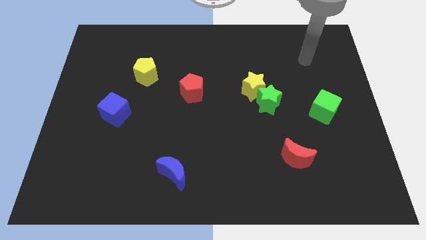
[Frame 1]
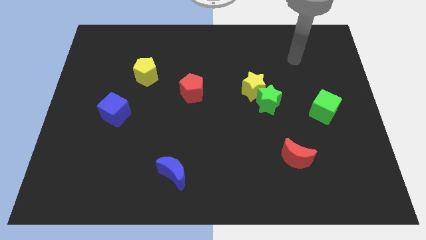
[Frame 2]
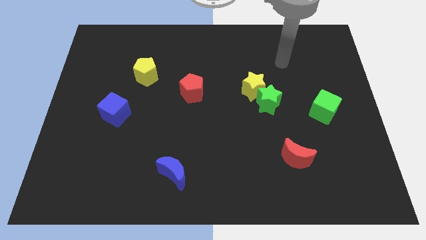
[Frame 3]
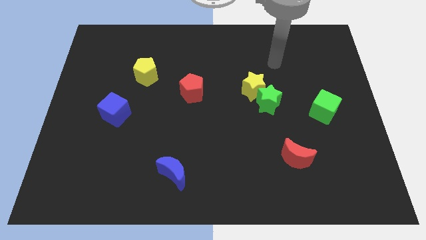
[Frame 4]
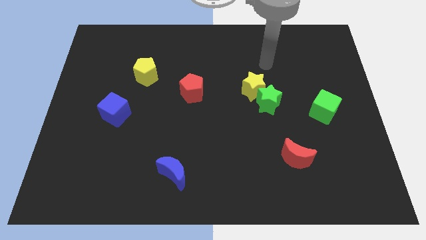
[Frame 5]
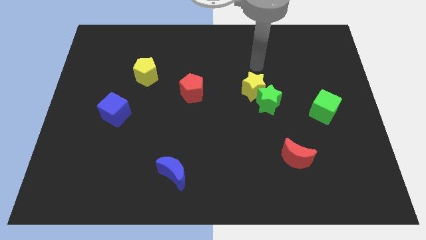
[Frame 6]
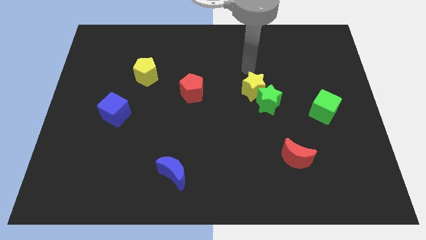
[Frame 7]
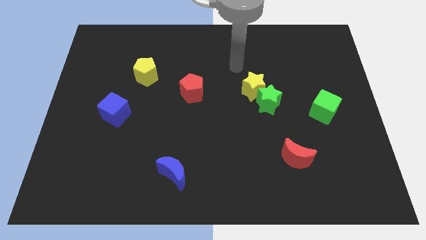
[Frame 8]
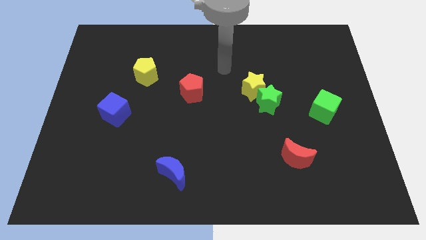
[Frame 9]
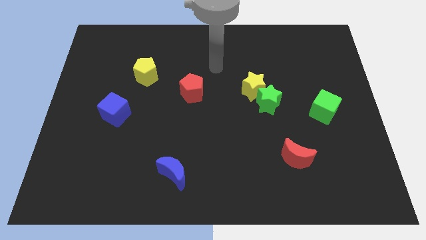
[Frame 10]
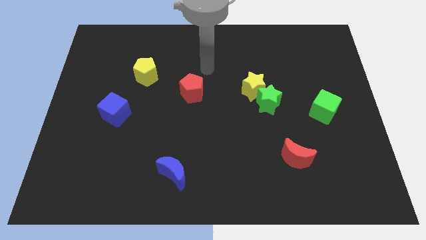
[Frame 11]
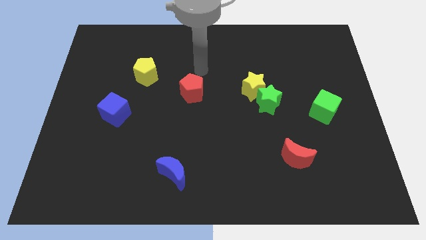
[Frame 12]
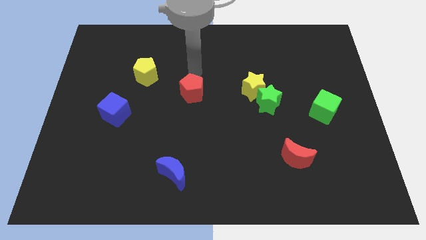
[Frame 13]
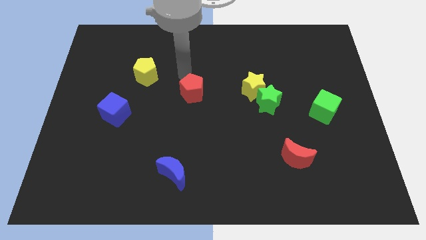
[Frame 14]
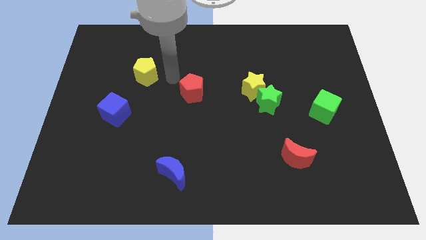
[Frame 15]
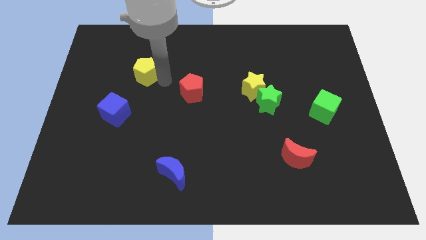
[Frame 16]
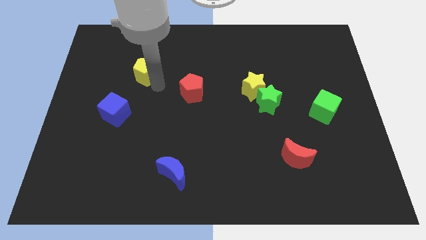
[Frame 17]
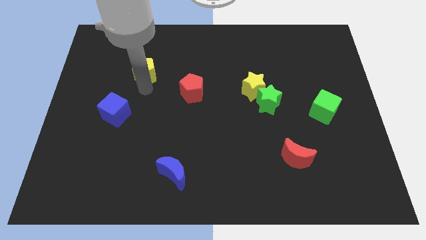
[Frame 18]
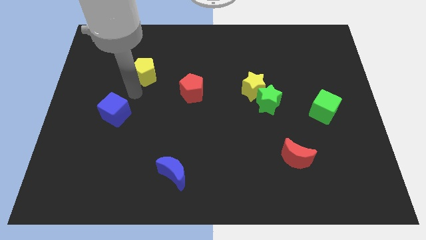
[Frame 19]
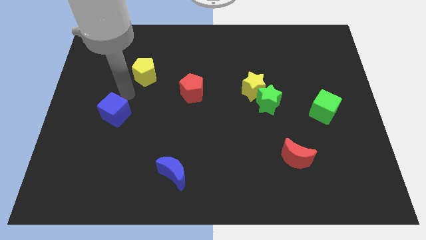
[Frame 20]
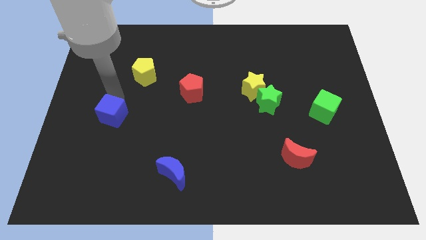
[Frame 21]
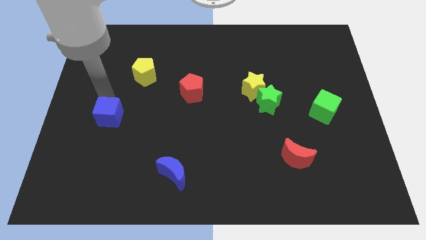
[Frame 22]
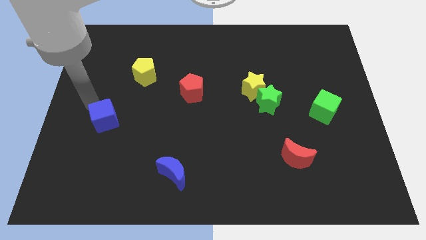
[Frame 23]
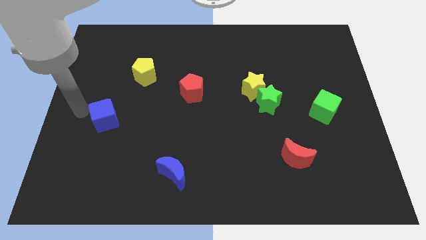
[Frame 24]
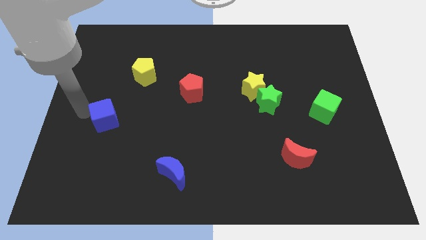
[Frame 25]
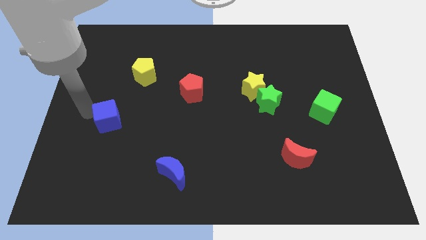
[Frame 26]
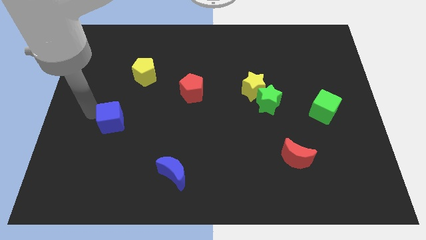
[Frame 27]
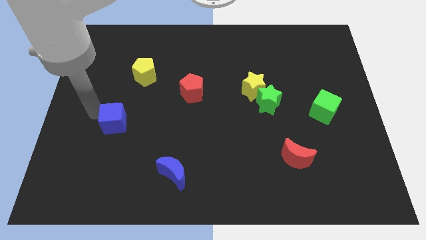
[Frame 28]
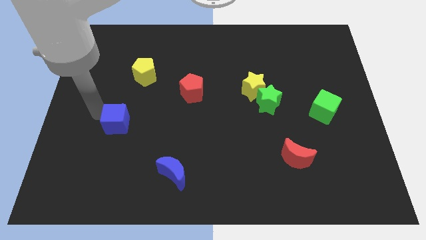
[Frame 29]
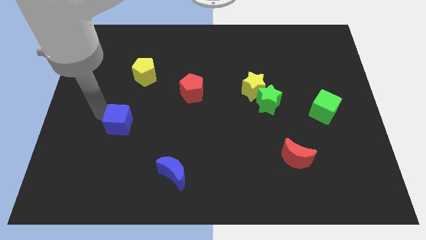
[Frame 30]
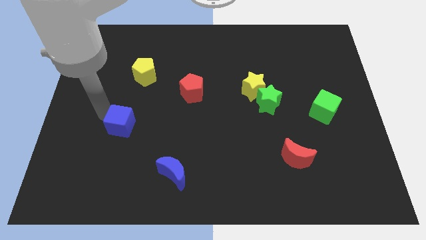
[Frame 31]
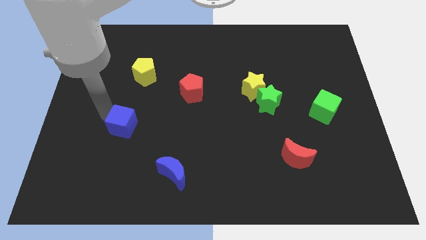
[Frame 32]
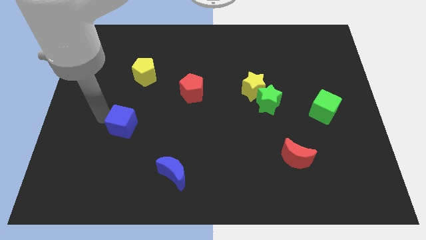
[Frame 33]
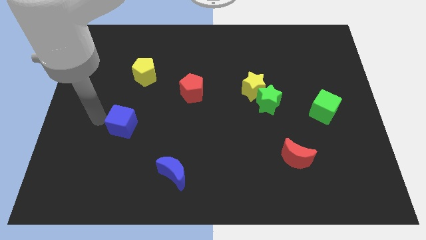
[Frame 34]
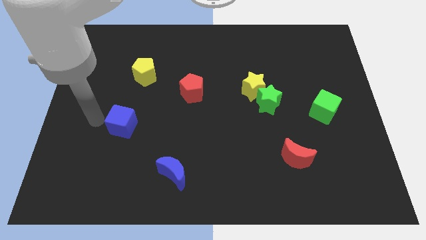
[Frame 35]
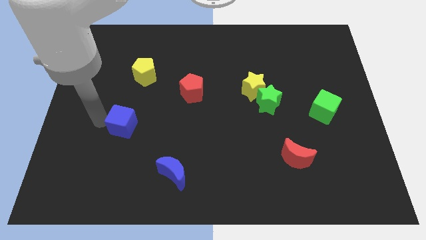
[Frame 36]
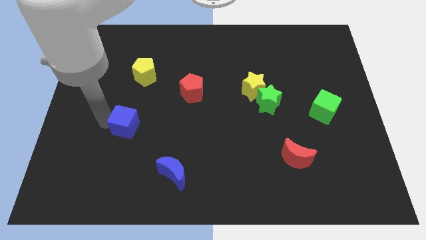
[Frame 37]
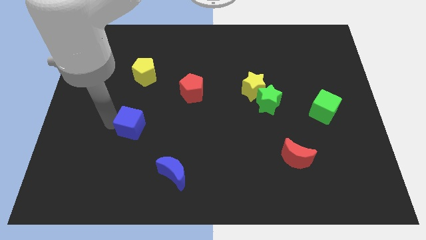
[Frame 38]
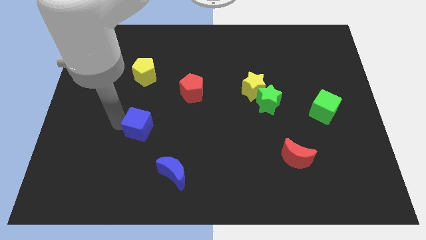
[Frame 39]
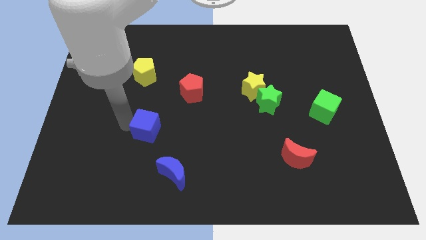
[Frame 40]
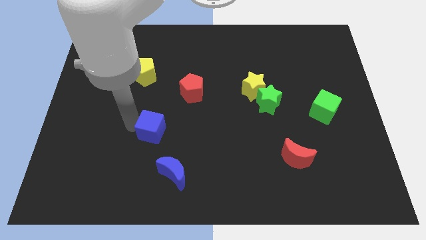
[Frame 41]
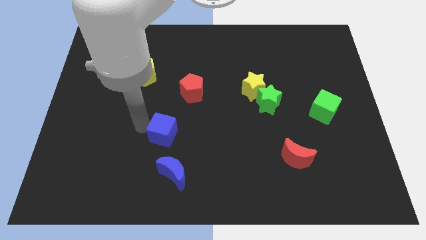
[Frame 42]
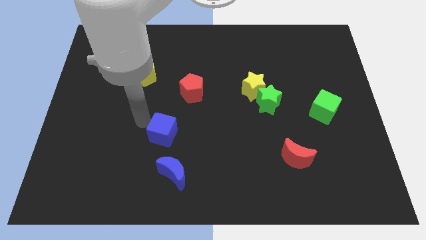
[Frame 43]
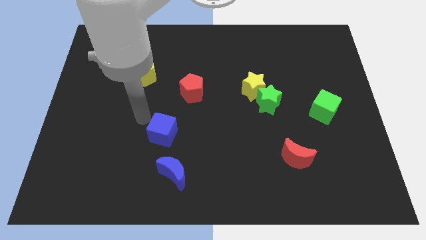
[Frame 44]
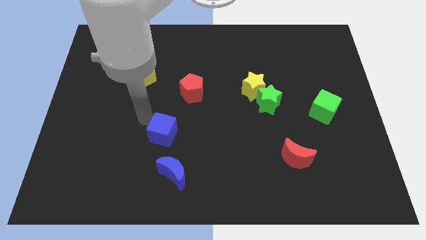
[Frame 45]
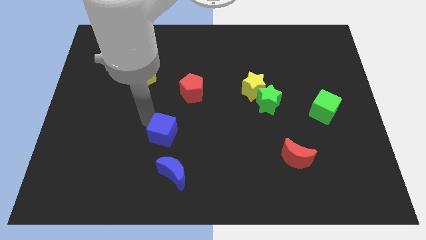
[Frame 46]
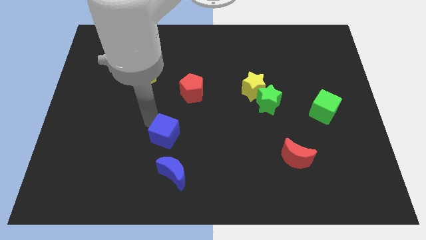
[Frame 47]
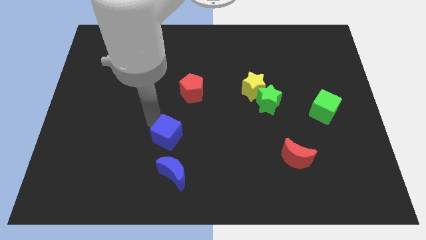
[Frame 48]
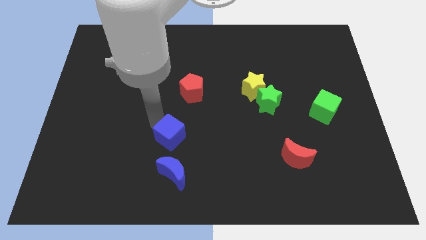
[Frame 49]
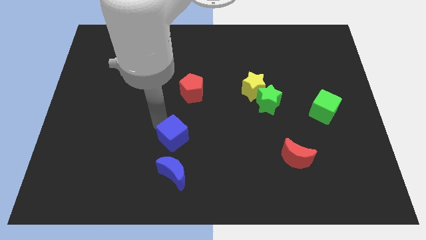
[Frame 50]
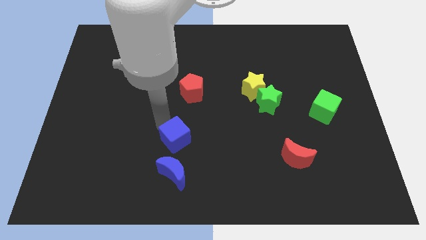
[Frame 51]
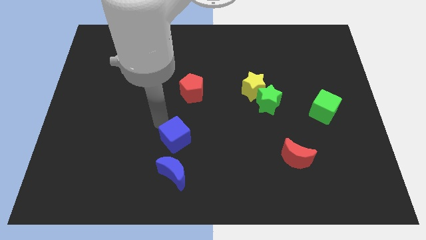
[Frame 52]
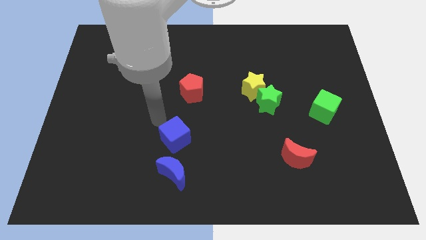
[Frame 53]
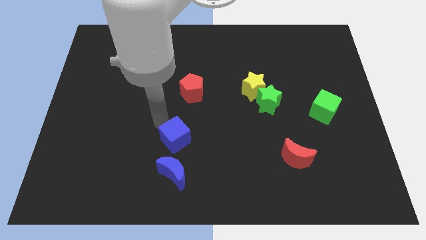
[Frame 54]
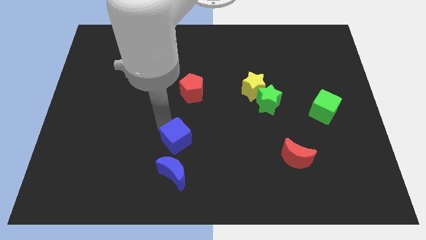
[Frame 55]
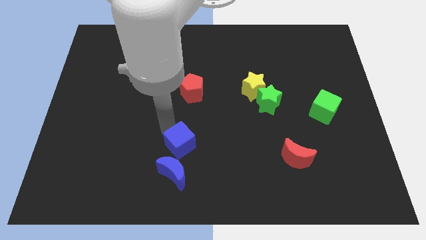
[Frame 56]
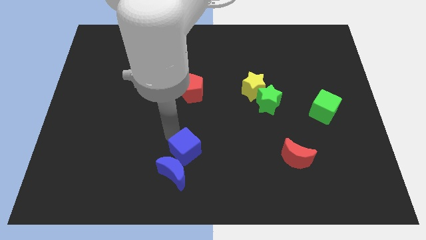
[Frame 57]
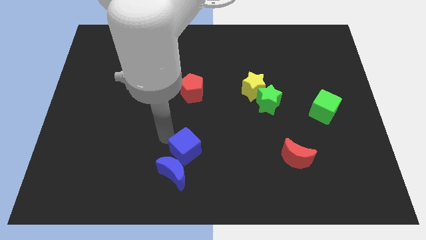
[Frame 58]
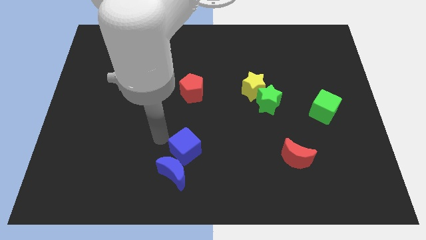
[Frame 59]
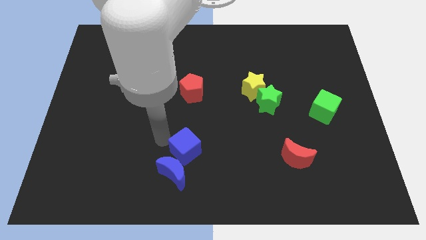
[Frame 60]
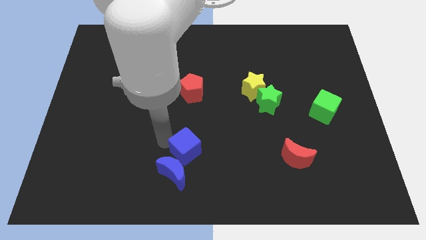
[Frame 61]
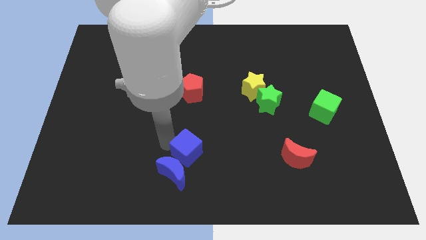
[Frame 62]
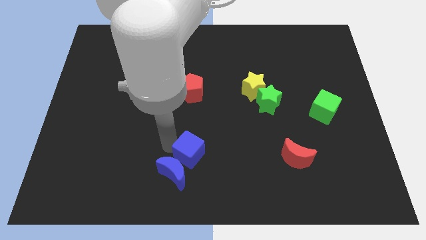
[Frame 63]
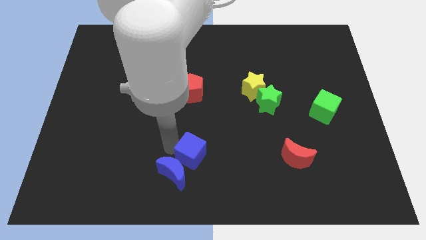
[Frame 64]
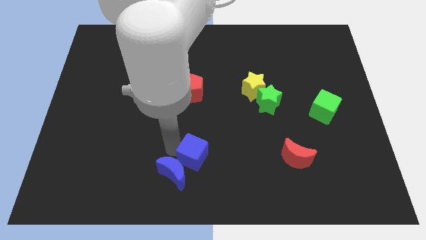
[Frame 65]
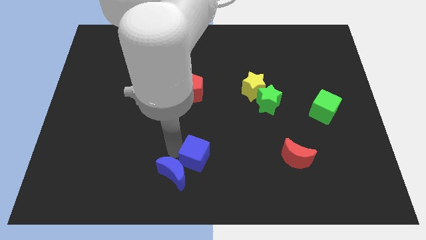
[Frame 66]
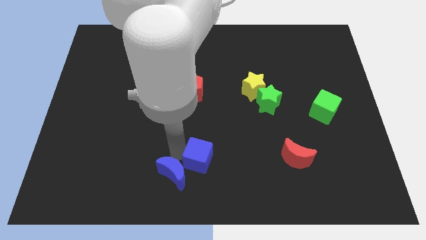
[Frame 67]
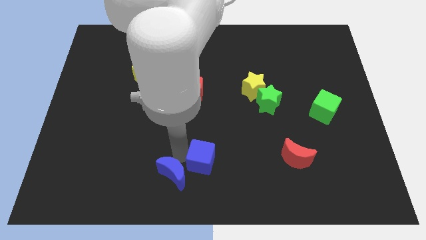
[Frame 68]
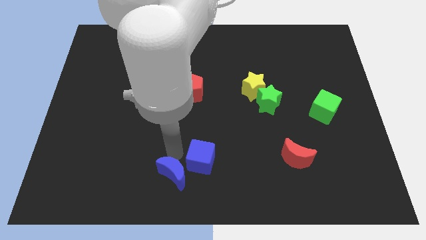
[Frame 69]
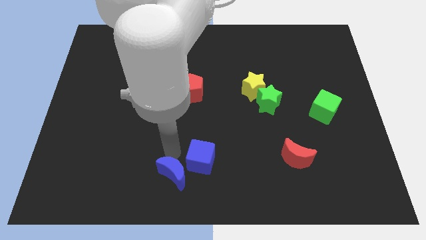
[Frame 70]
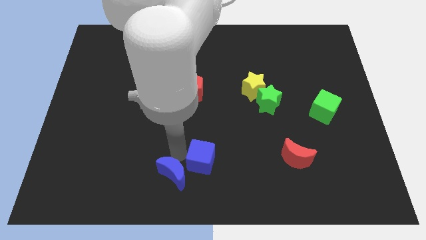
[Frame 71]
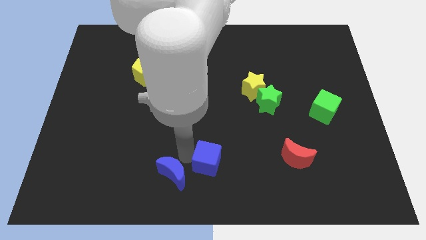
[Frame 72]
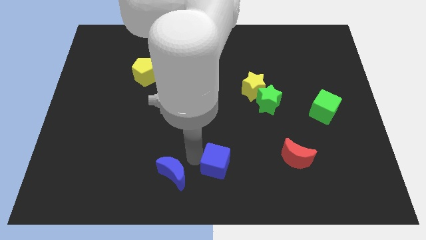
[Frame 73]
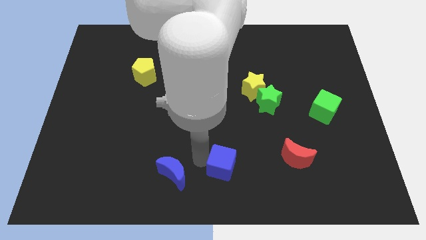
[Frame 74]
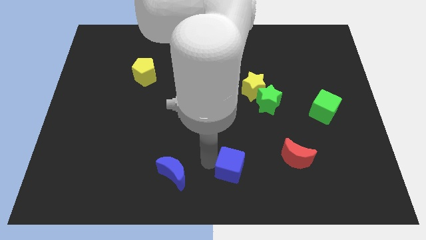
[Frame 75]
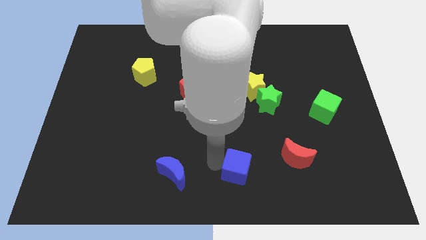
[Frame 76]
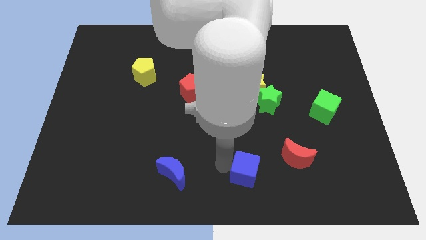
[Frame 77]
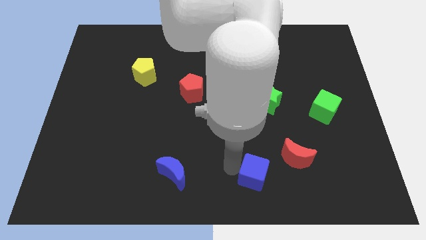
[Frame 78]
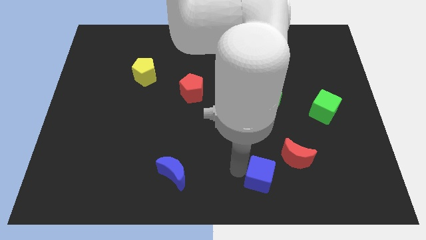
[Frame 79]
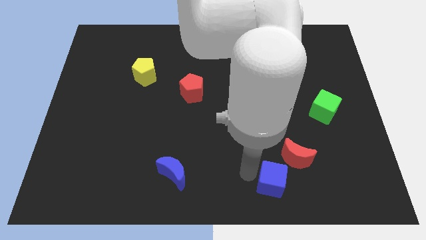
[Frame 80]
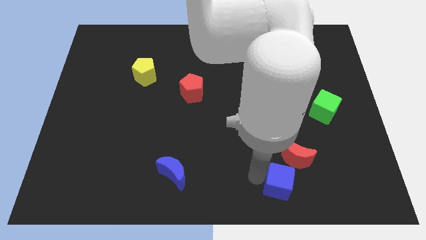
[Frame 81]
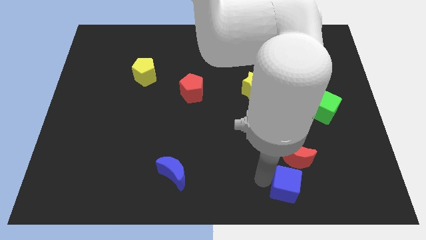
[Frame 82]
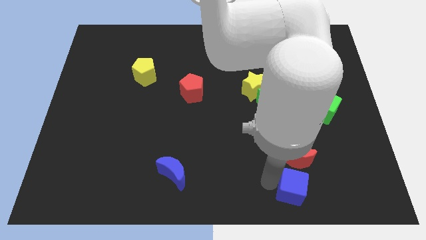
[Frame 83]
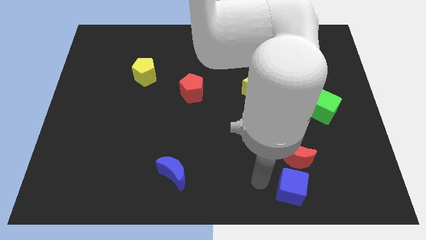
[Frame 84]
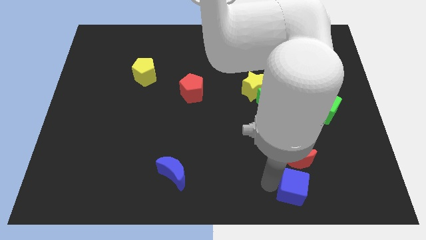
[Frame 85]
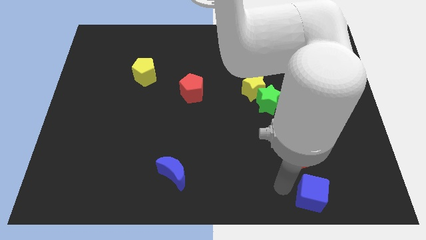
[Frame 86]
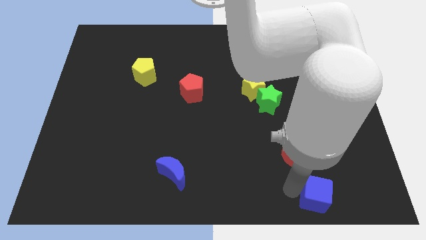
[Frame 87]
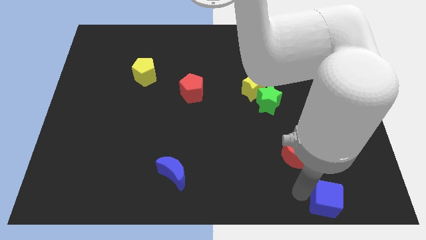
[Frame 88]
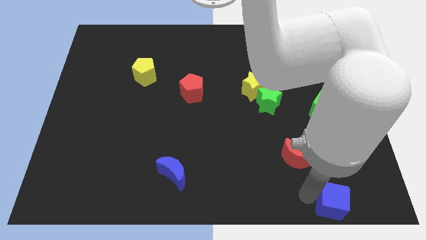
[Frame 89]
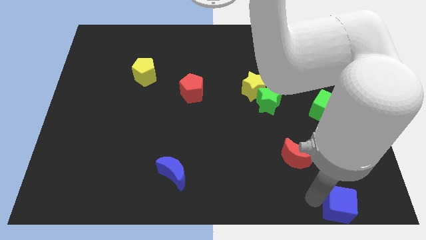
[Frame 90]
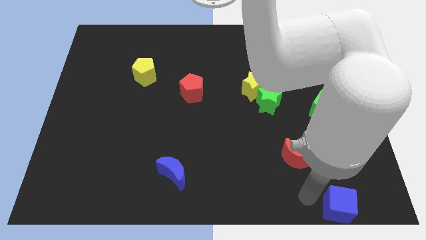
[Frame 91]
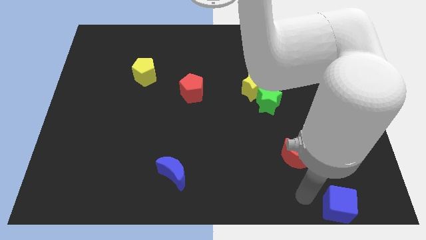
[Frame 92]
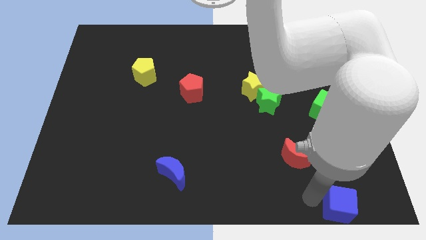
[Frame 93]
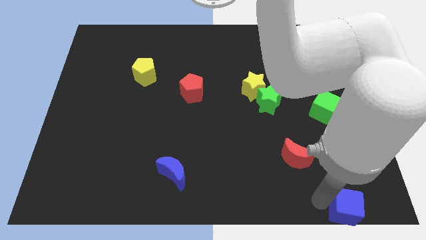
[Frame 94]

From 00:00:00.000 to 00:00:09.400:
move the blue cube to the lower right corner
